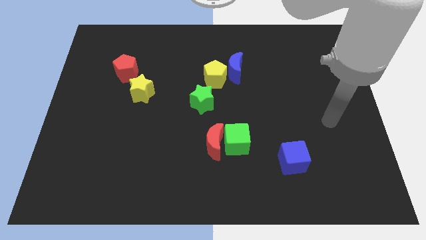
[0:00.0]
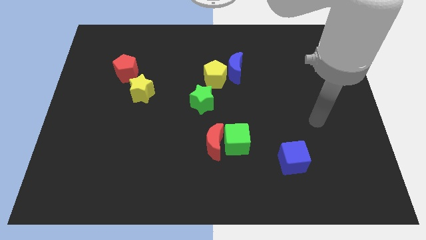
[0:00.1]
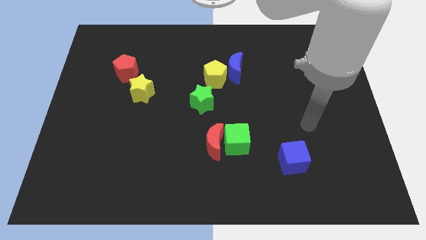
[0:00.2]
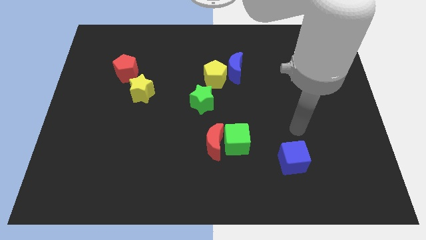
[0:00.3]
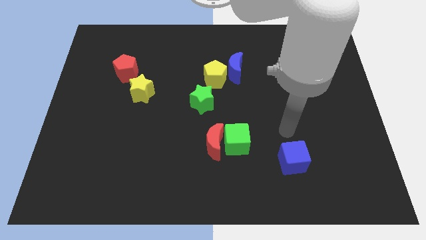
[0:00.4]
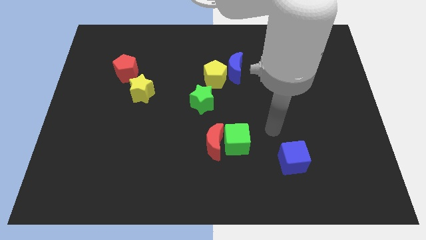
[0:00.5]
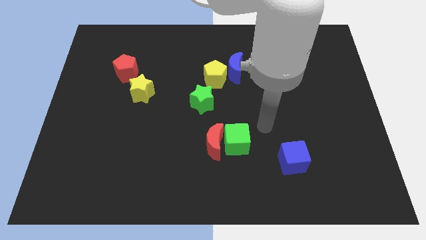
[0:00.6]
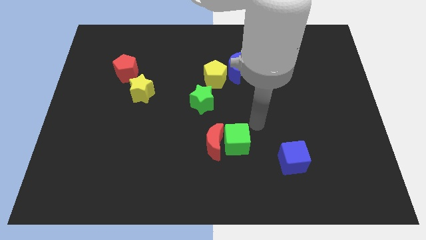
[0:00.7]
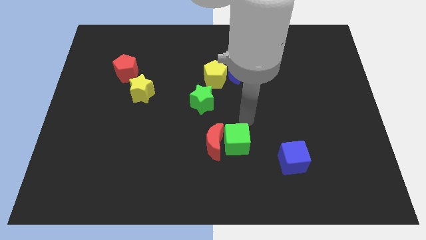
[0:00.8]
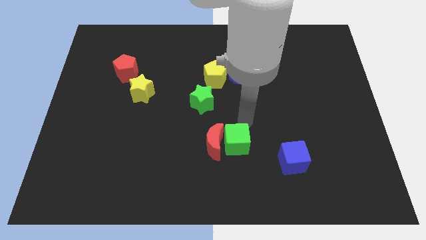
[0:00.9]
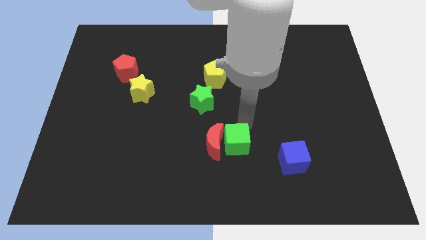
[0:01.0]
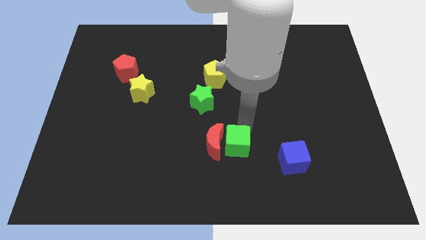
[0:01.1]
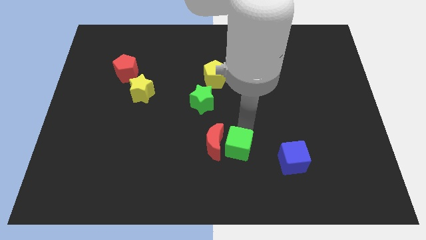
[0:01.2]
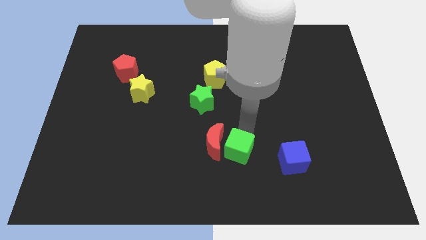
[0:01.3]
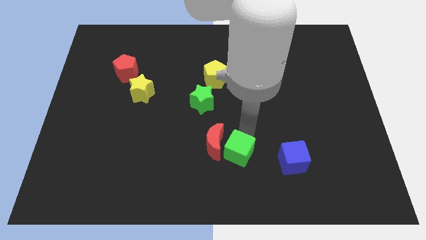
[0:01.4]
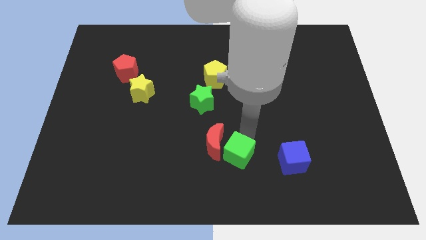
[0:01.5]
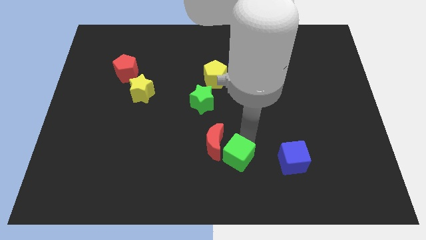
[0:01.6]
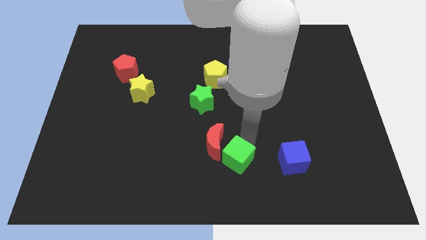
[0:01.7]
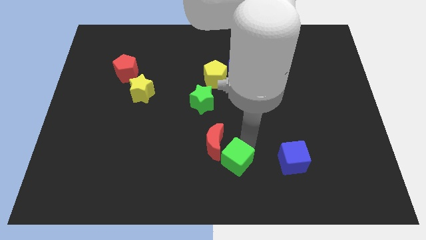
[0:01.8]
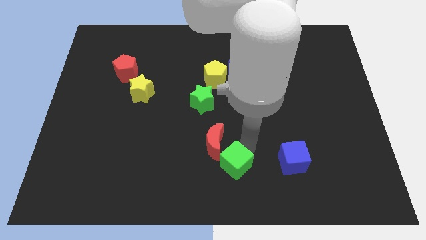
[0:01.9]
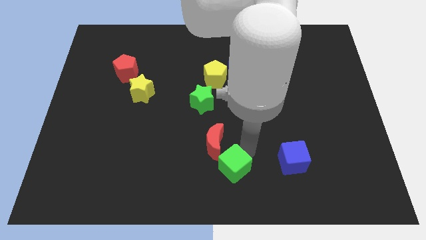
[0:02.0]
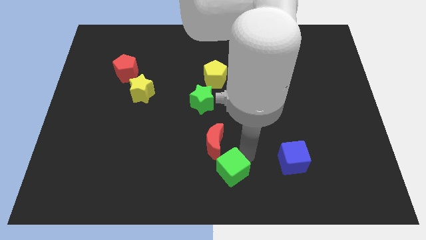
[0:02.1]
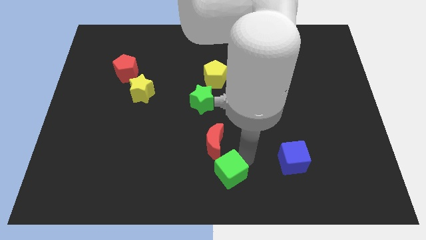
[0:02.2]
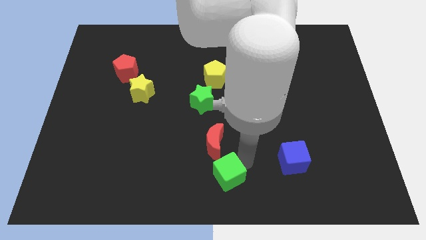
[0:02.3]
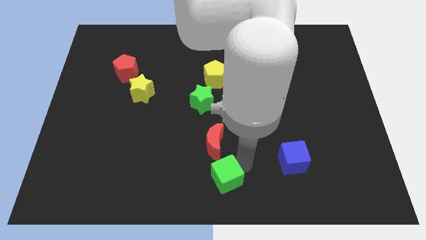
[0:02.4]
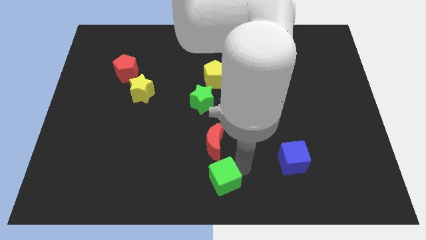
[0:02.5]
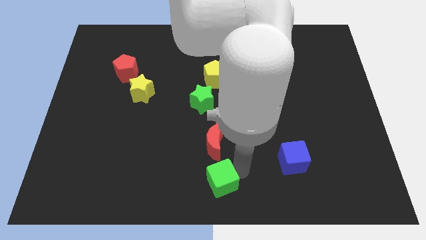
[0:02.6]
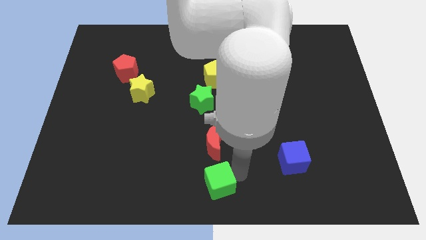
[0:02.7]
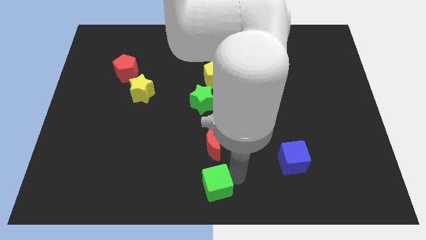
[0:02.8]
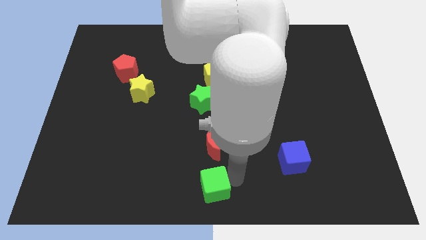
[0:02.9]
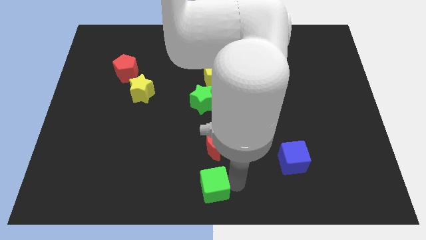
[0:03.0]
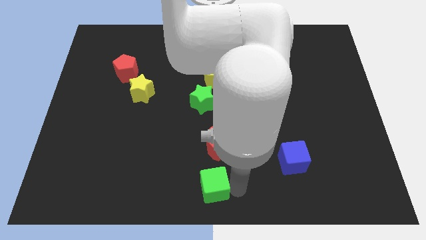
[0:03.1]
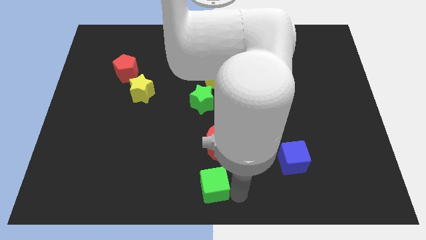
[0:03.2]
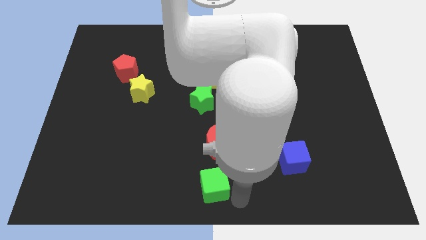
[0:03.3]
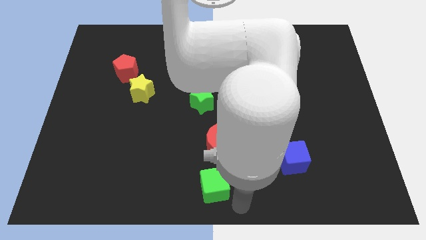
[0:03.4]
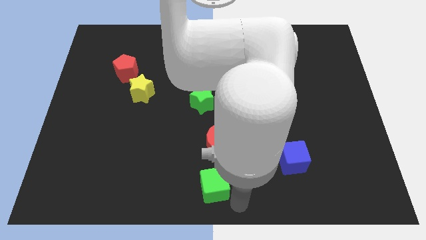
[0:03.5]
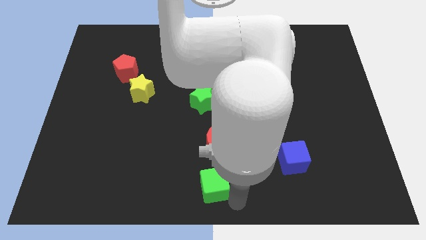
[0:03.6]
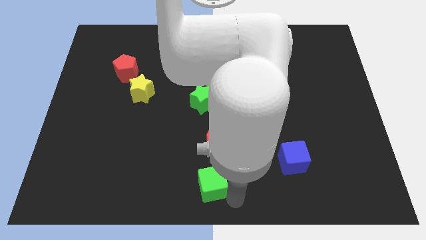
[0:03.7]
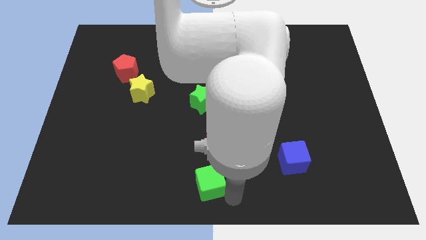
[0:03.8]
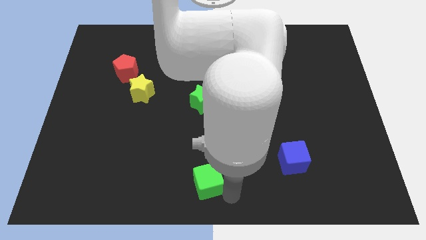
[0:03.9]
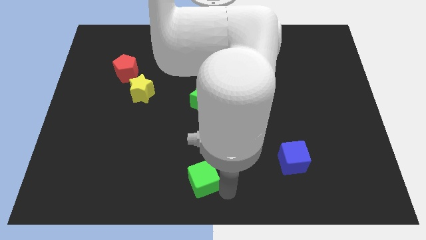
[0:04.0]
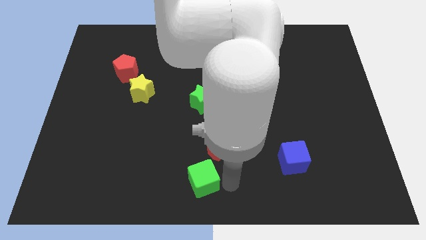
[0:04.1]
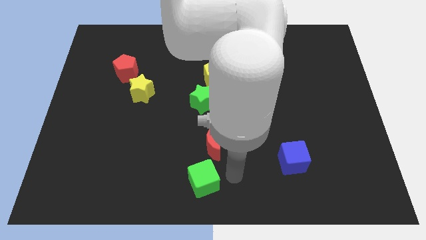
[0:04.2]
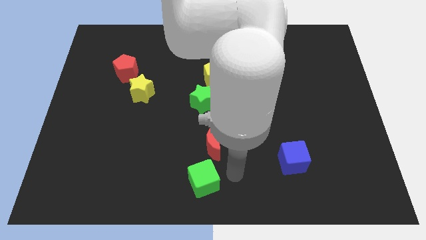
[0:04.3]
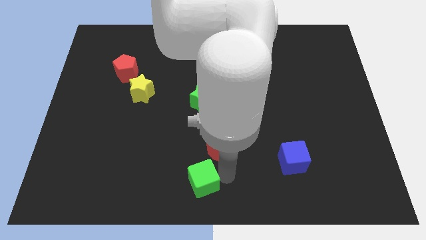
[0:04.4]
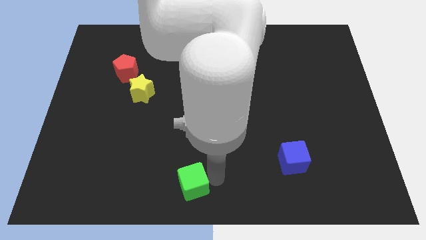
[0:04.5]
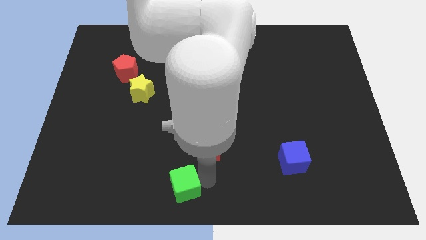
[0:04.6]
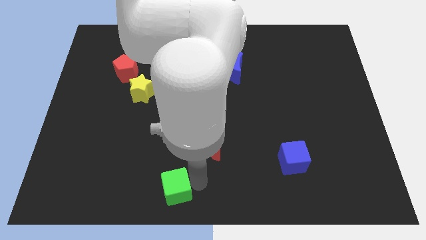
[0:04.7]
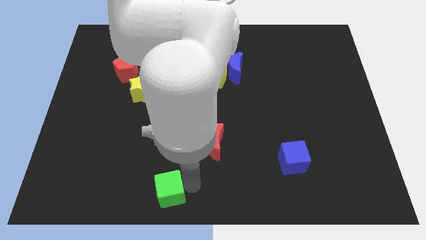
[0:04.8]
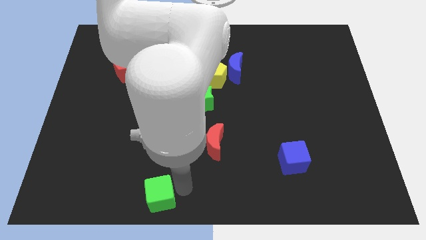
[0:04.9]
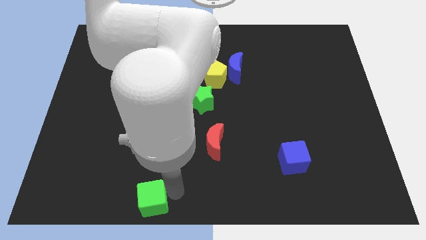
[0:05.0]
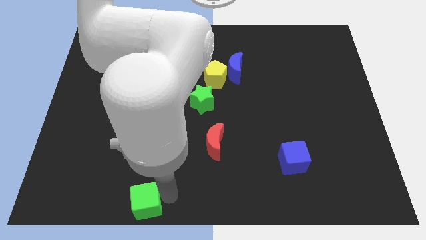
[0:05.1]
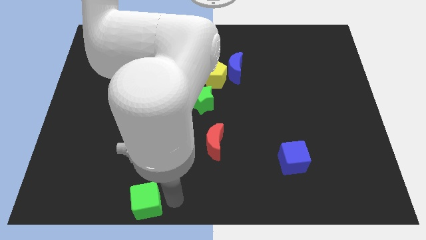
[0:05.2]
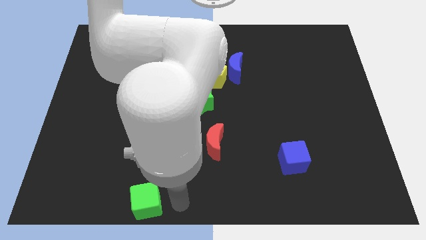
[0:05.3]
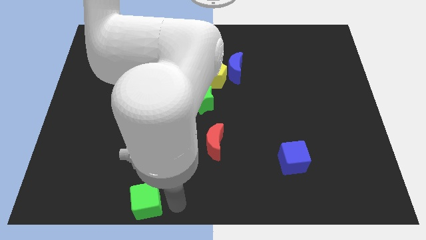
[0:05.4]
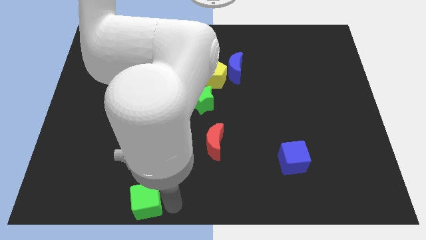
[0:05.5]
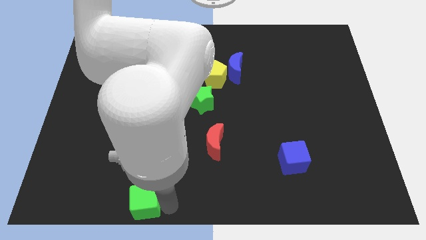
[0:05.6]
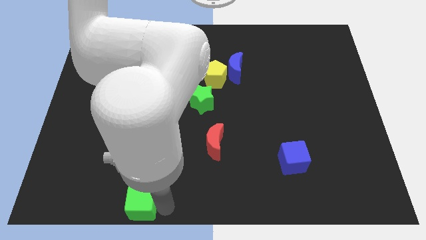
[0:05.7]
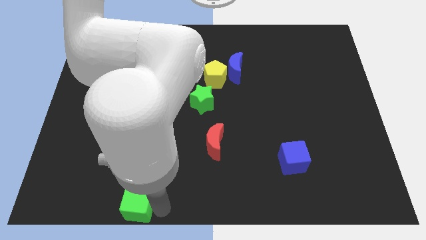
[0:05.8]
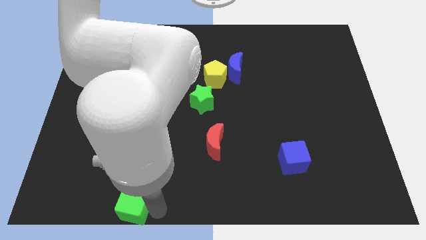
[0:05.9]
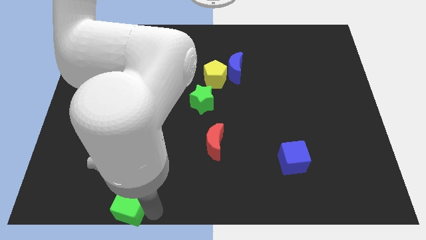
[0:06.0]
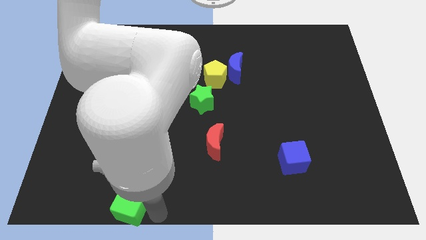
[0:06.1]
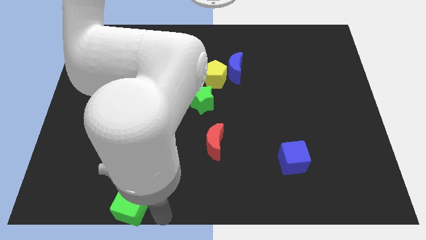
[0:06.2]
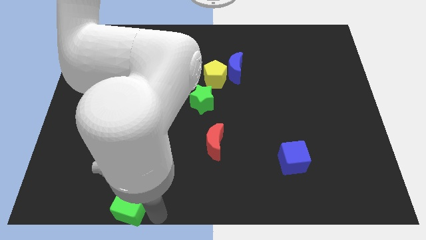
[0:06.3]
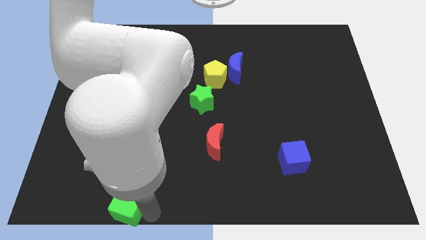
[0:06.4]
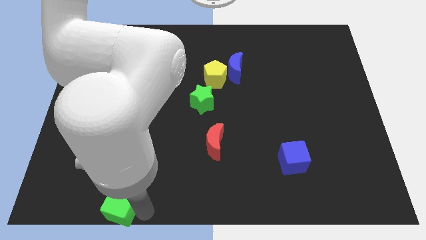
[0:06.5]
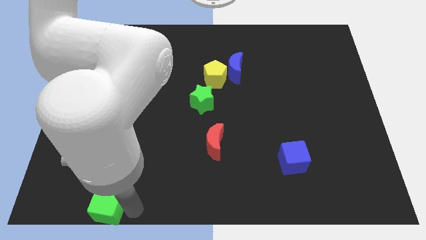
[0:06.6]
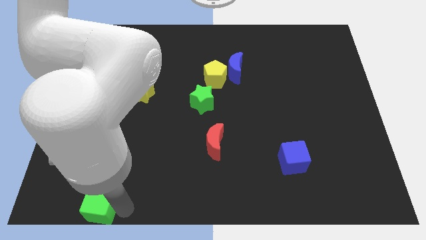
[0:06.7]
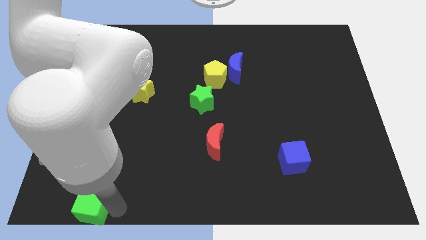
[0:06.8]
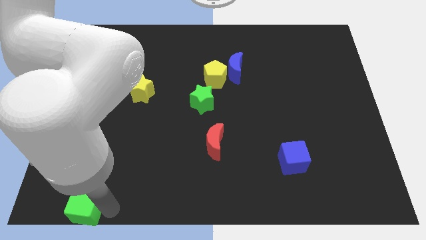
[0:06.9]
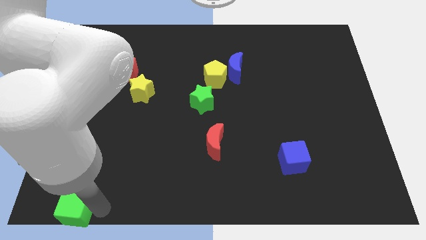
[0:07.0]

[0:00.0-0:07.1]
move the green cube to the lower left corner
